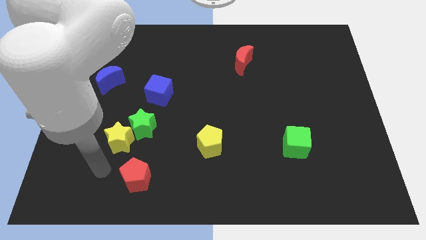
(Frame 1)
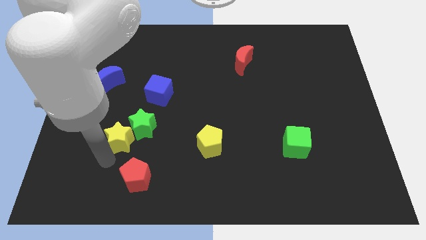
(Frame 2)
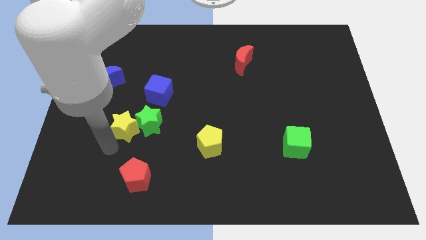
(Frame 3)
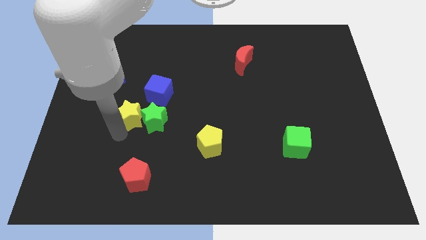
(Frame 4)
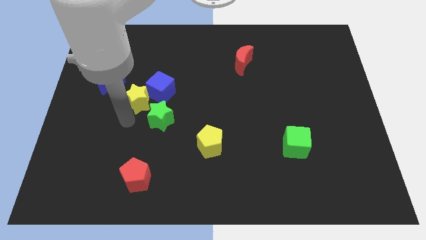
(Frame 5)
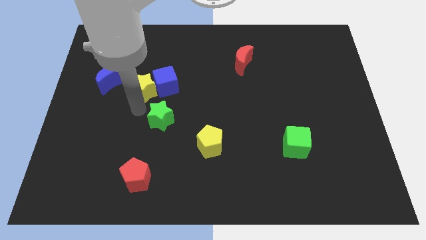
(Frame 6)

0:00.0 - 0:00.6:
move the green star away from the yellow star

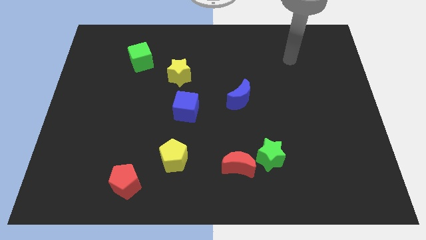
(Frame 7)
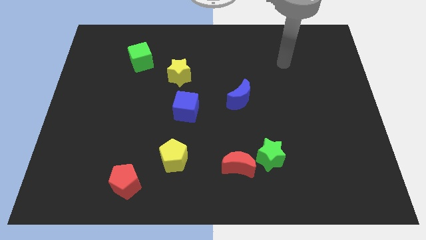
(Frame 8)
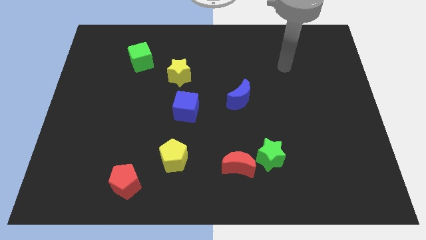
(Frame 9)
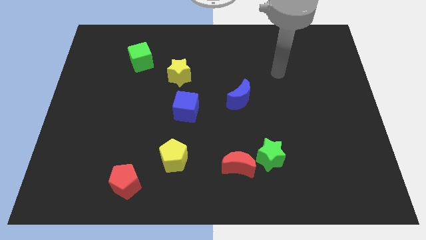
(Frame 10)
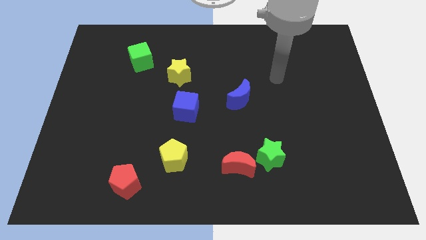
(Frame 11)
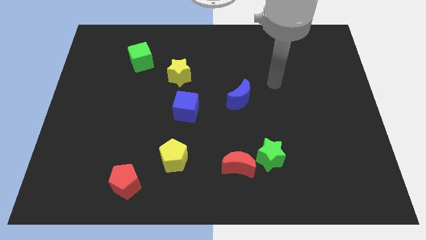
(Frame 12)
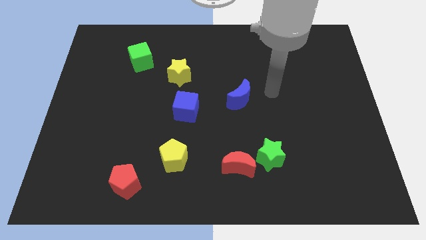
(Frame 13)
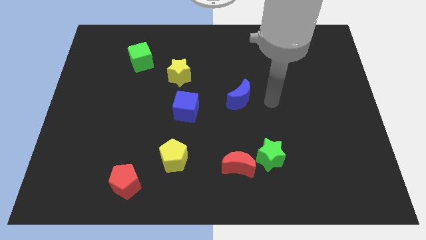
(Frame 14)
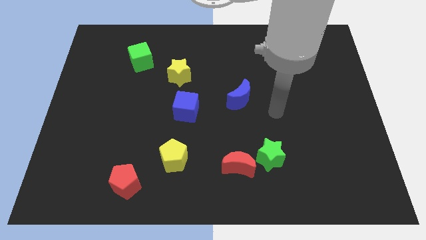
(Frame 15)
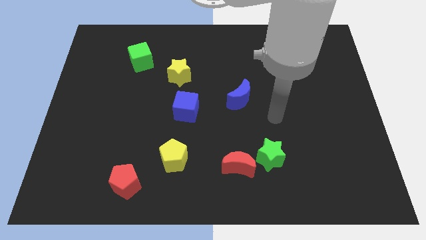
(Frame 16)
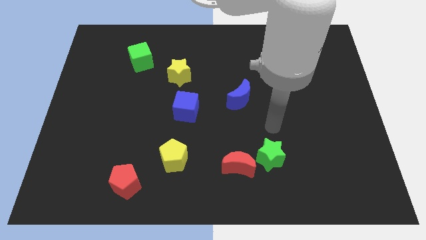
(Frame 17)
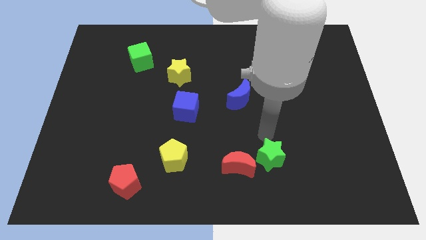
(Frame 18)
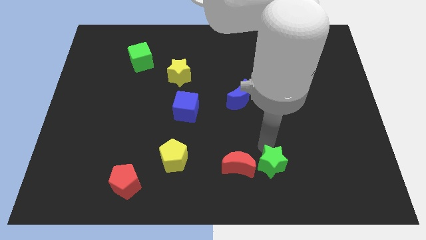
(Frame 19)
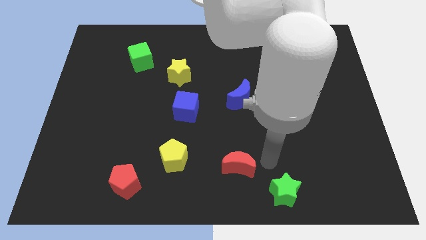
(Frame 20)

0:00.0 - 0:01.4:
move the red moon away from the green star

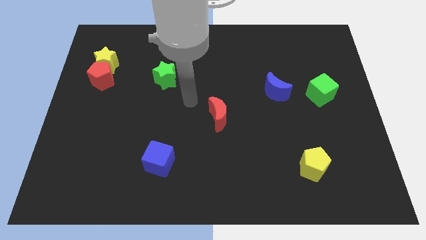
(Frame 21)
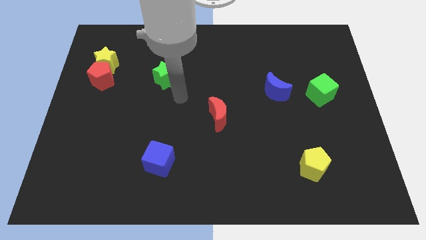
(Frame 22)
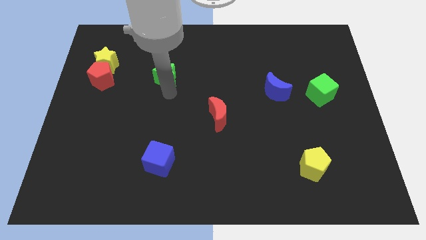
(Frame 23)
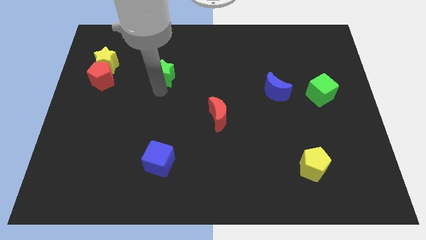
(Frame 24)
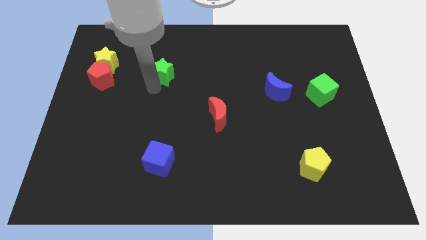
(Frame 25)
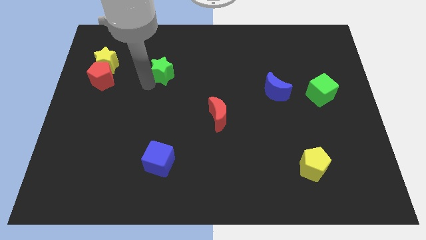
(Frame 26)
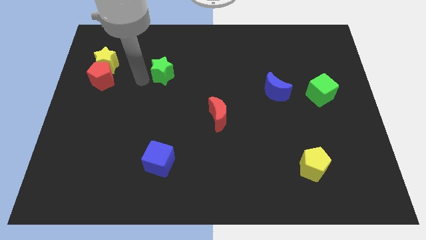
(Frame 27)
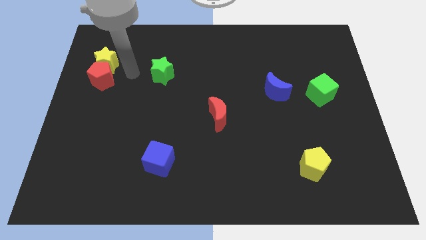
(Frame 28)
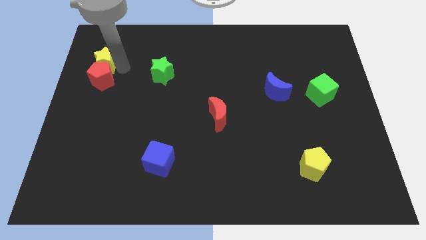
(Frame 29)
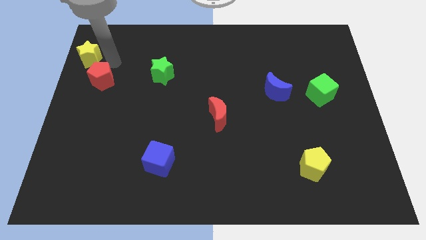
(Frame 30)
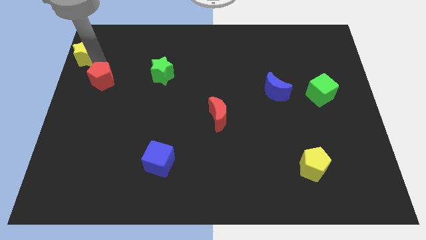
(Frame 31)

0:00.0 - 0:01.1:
move the red pentagon away from the yellow star

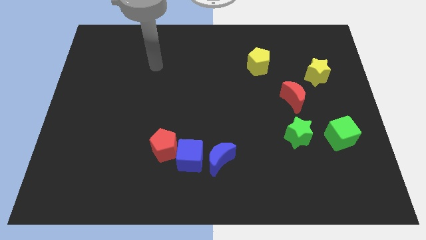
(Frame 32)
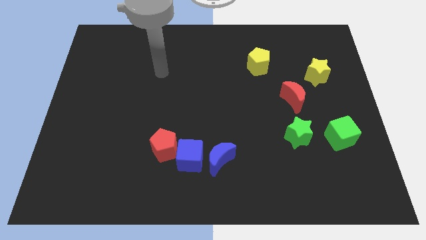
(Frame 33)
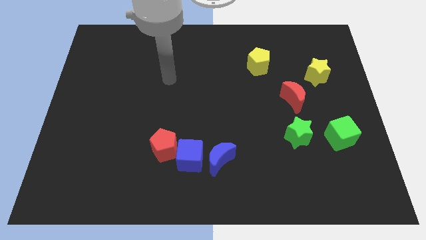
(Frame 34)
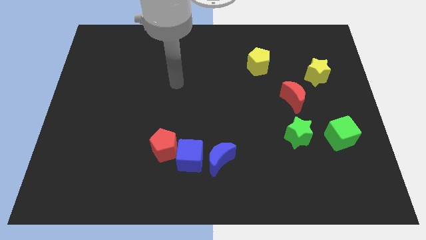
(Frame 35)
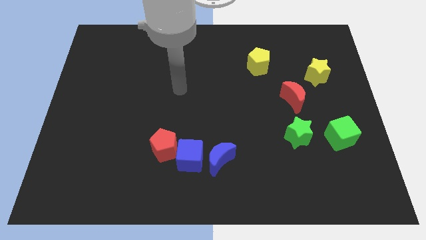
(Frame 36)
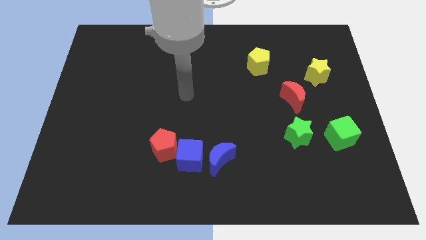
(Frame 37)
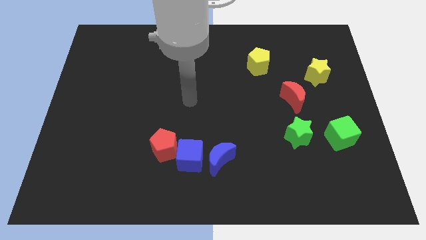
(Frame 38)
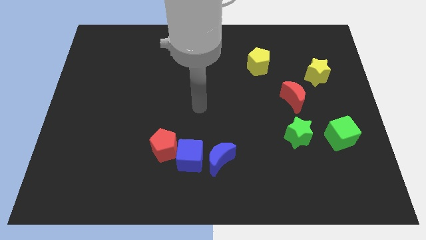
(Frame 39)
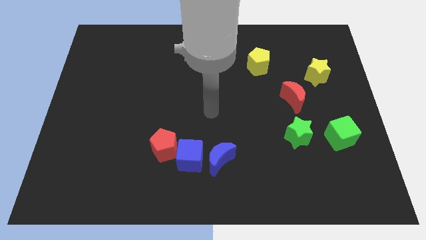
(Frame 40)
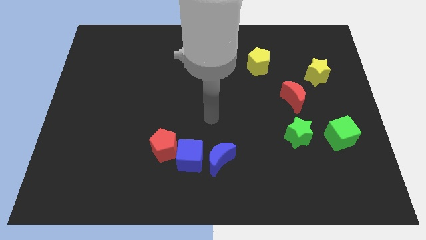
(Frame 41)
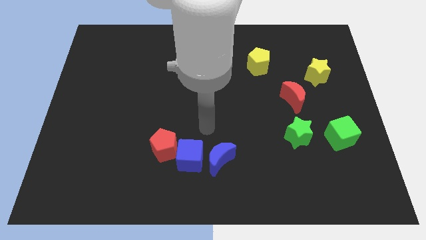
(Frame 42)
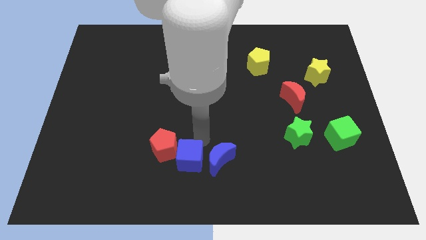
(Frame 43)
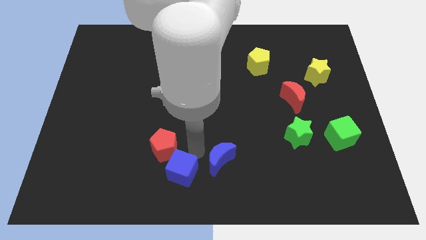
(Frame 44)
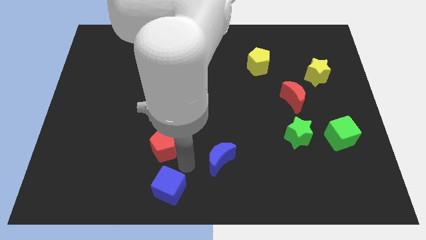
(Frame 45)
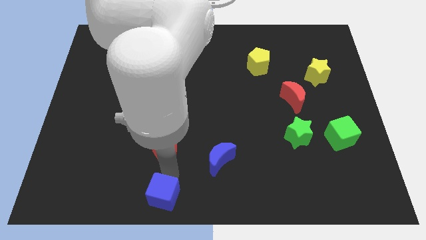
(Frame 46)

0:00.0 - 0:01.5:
move the red pentagon away from the blue cube

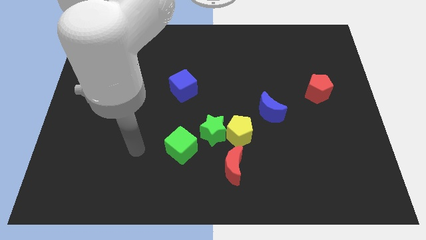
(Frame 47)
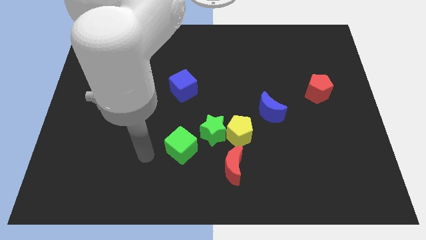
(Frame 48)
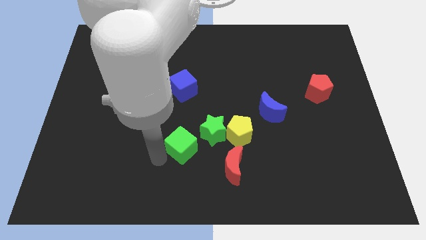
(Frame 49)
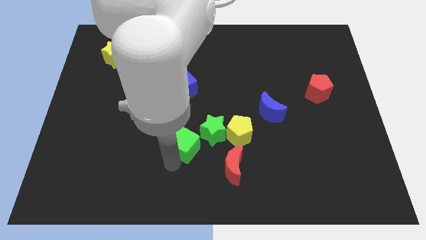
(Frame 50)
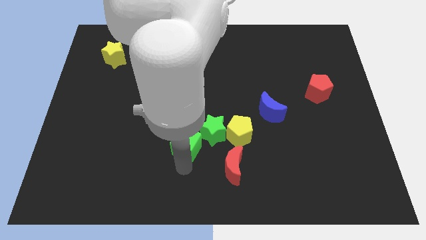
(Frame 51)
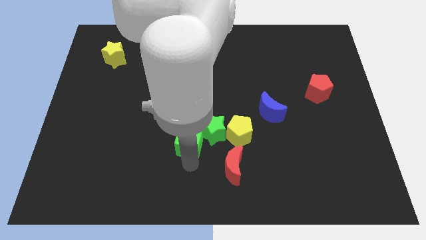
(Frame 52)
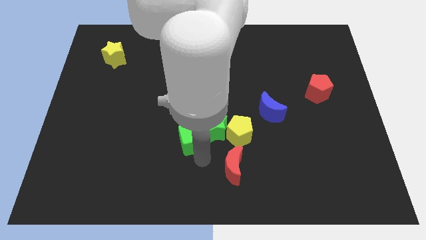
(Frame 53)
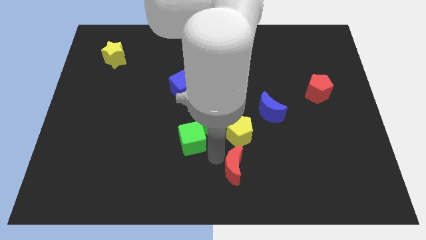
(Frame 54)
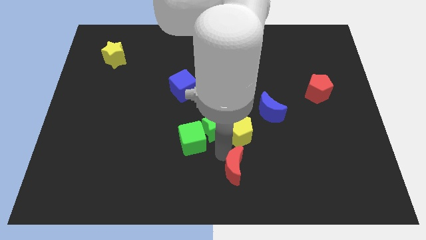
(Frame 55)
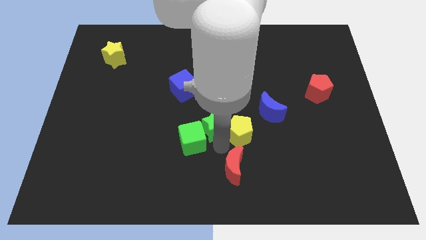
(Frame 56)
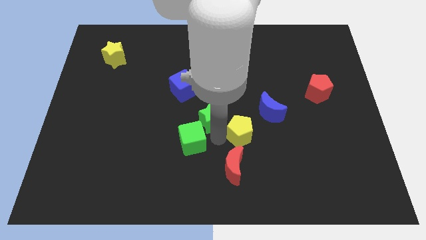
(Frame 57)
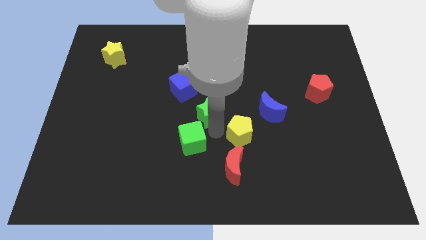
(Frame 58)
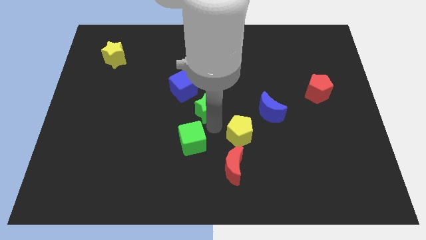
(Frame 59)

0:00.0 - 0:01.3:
pull the green star apart from the yellow pentagon, green cube, and red moon

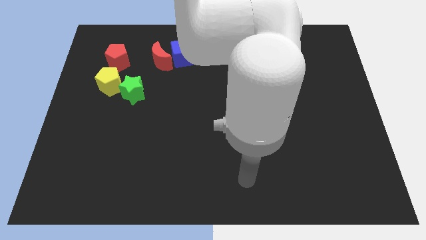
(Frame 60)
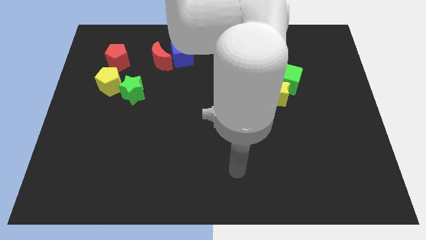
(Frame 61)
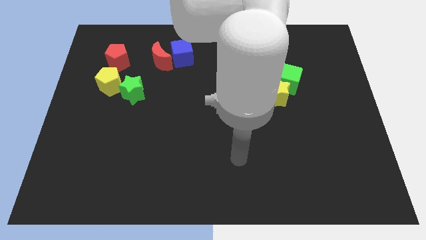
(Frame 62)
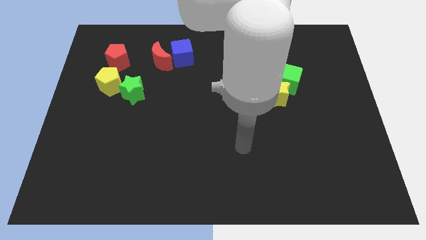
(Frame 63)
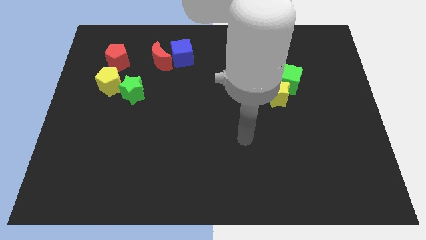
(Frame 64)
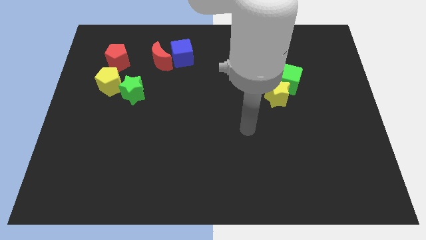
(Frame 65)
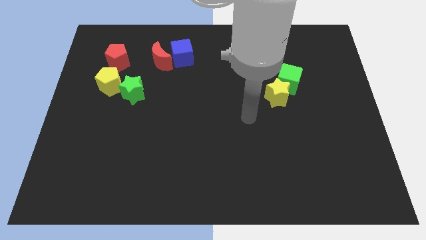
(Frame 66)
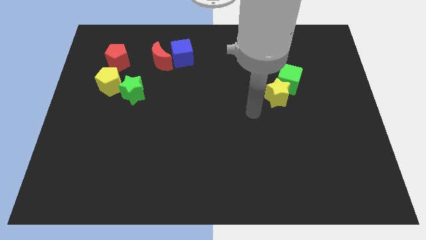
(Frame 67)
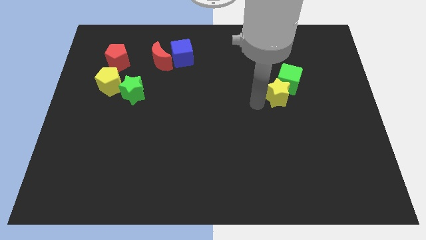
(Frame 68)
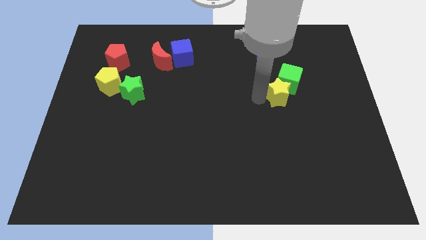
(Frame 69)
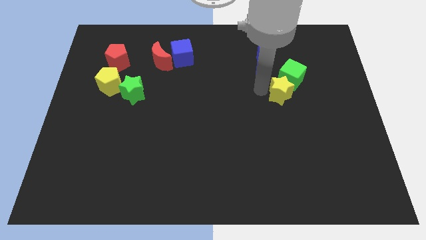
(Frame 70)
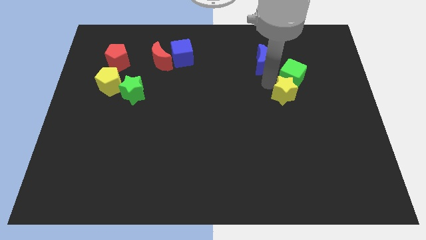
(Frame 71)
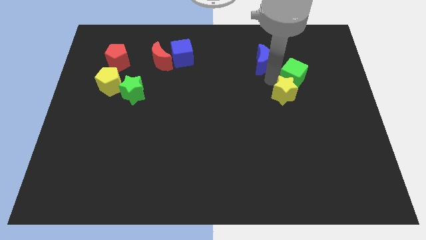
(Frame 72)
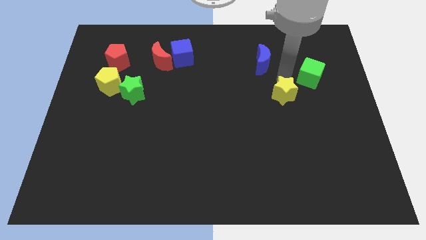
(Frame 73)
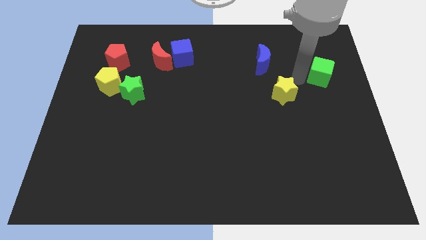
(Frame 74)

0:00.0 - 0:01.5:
separate the yellow star from the green cube

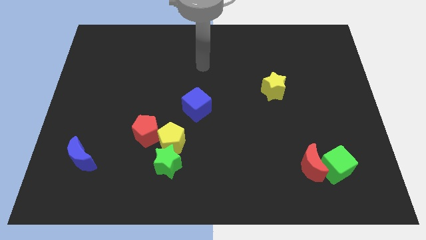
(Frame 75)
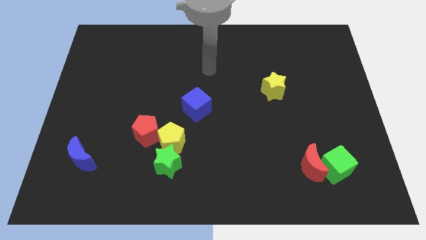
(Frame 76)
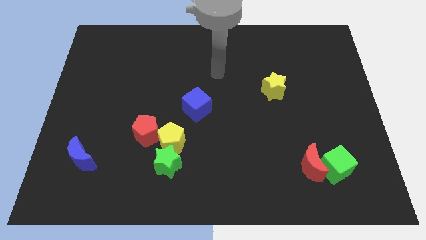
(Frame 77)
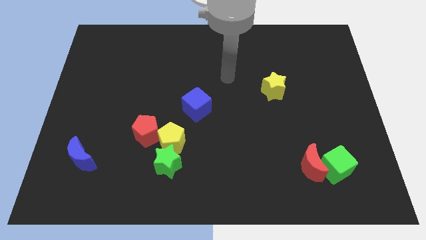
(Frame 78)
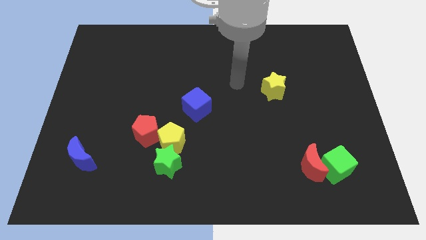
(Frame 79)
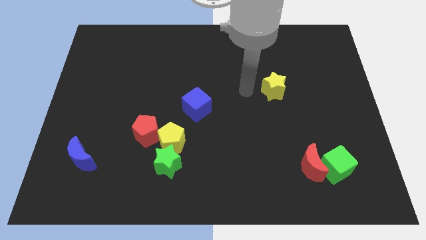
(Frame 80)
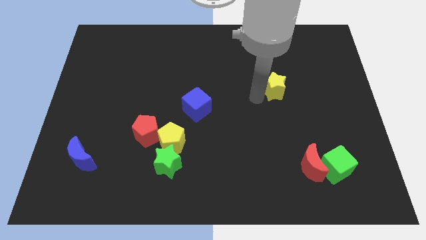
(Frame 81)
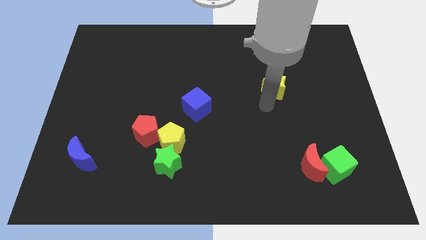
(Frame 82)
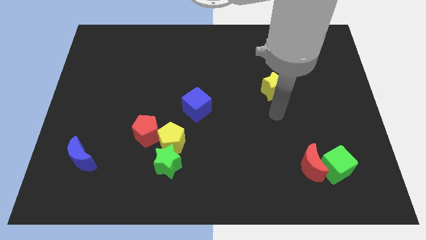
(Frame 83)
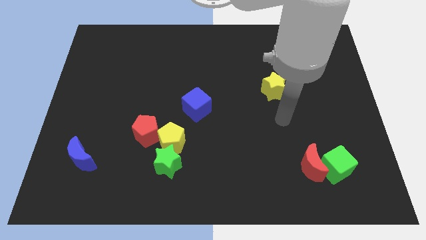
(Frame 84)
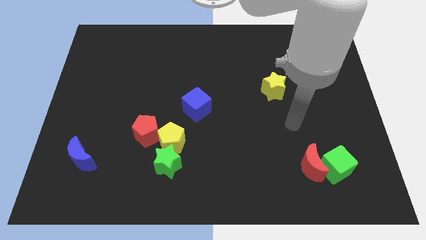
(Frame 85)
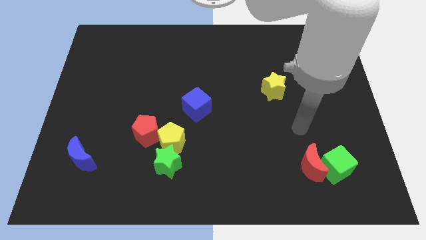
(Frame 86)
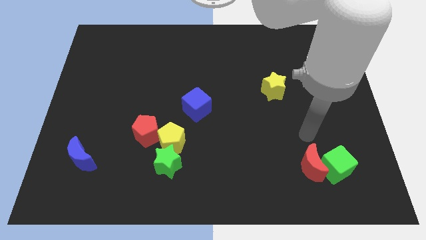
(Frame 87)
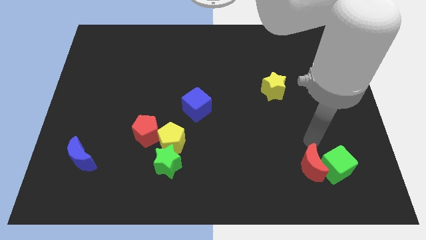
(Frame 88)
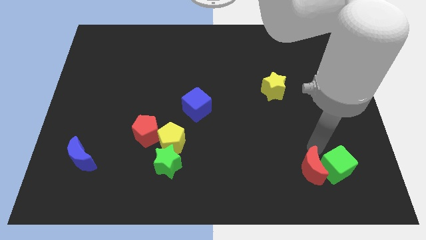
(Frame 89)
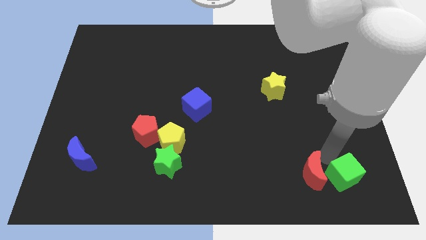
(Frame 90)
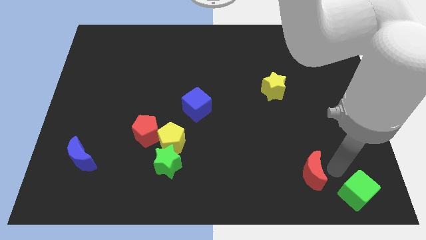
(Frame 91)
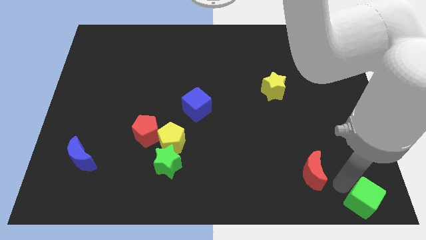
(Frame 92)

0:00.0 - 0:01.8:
separate the red moon from the green cube
